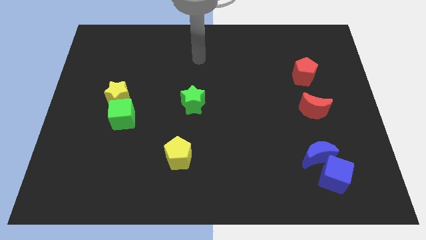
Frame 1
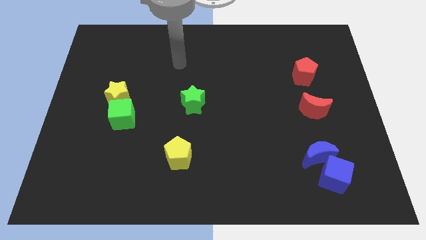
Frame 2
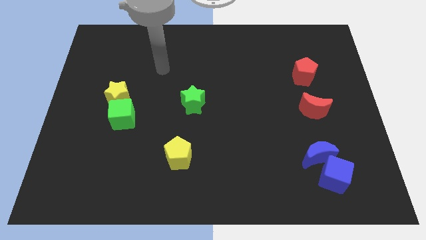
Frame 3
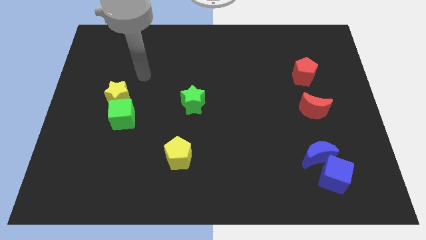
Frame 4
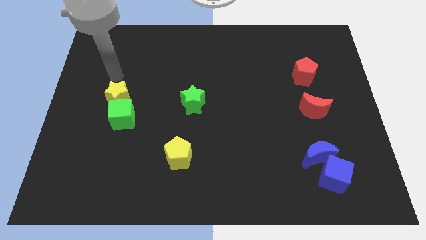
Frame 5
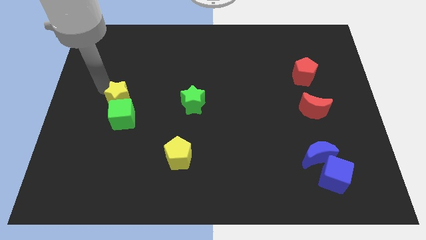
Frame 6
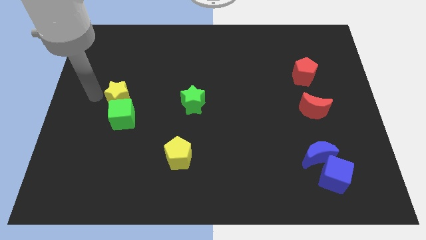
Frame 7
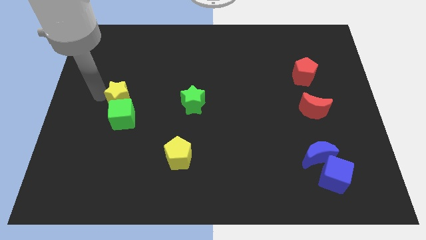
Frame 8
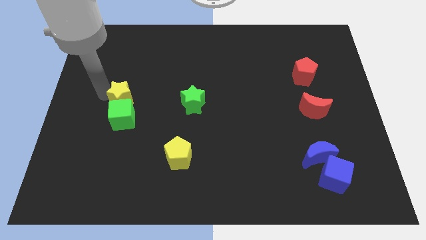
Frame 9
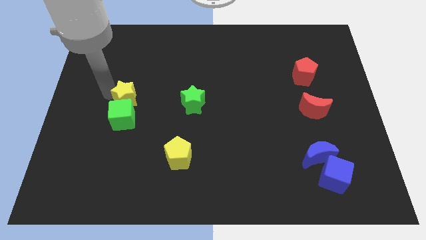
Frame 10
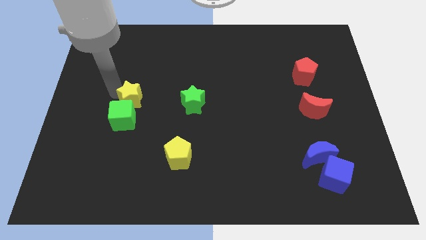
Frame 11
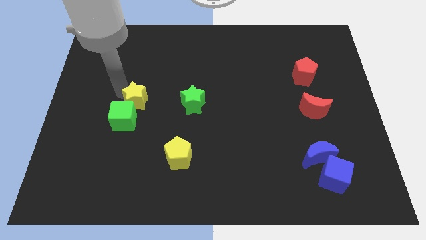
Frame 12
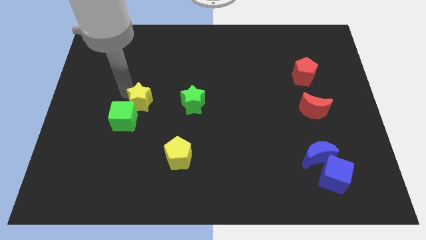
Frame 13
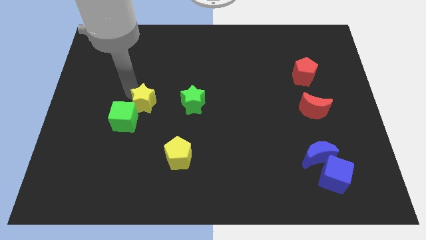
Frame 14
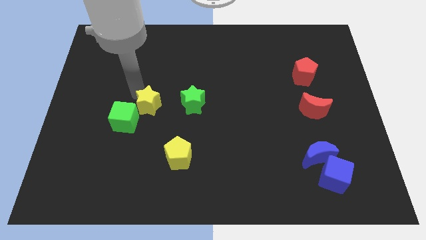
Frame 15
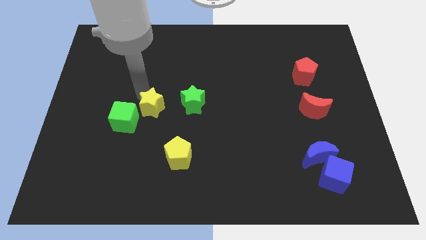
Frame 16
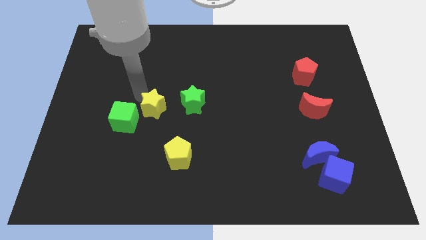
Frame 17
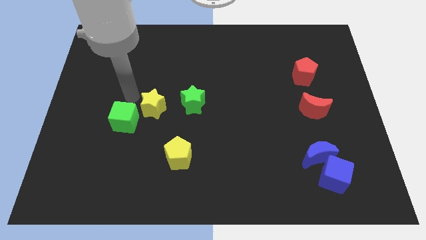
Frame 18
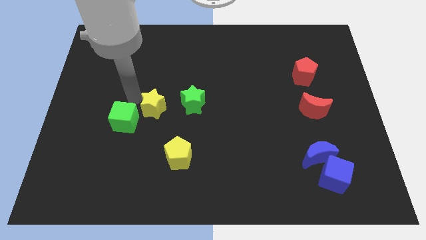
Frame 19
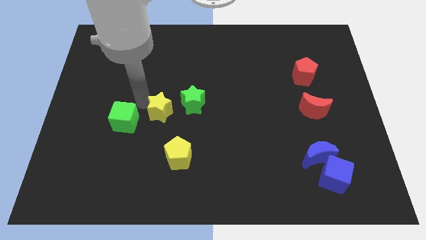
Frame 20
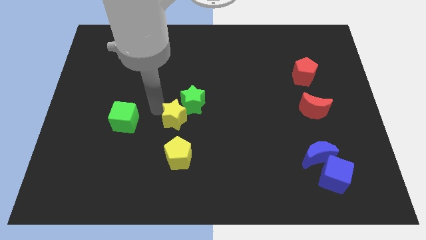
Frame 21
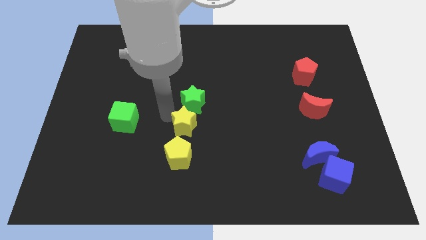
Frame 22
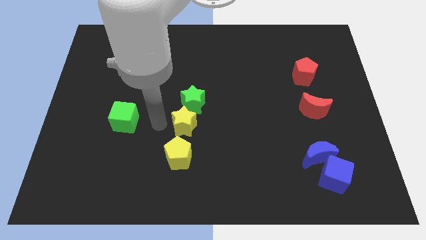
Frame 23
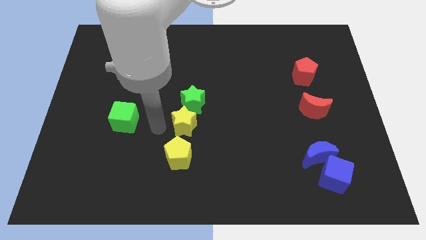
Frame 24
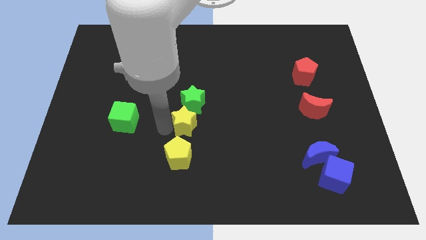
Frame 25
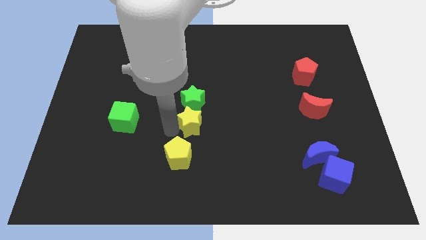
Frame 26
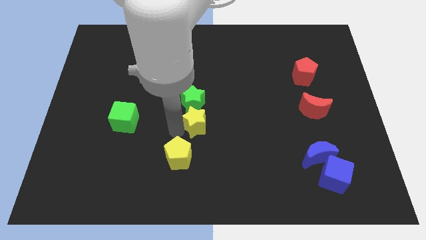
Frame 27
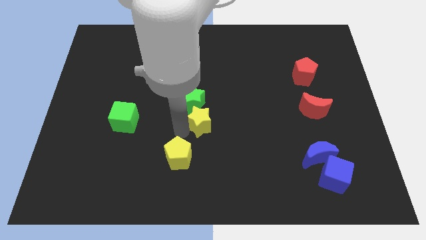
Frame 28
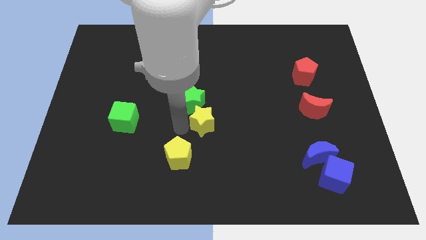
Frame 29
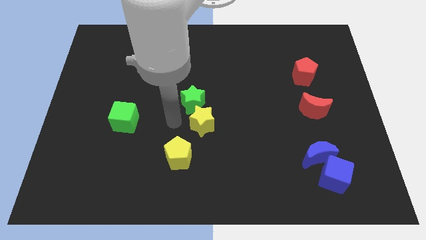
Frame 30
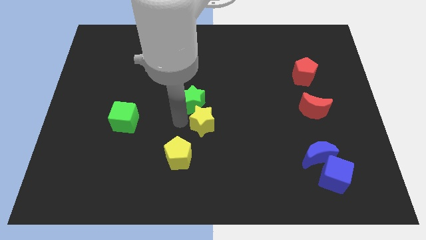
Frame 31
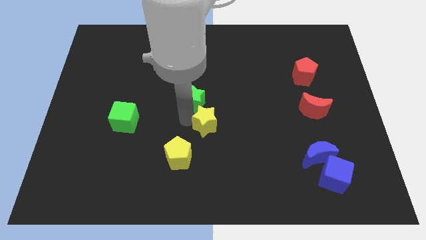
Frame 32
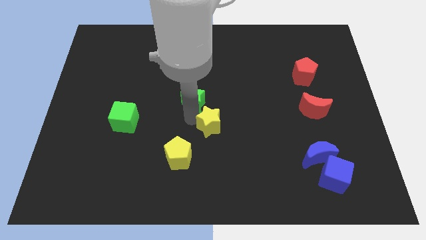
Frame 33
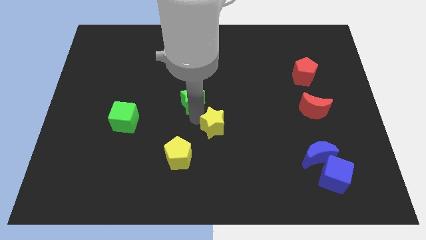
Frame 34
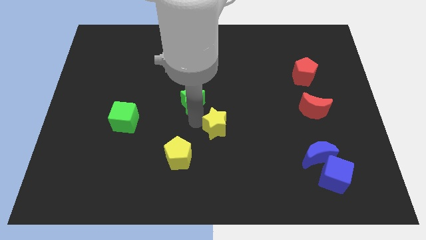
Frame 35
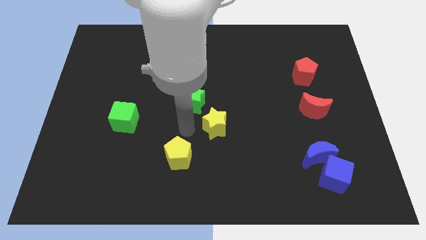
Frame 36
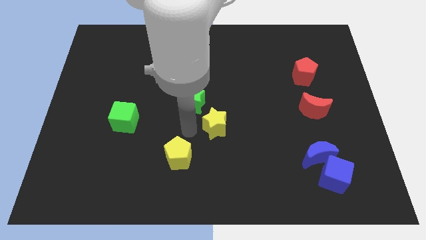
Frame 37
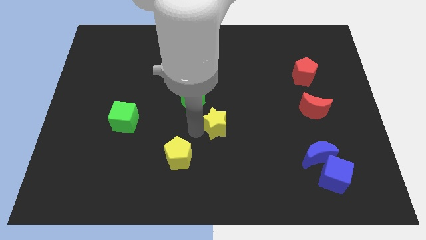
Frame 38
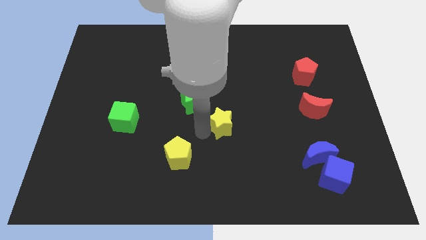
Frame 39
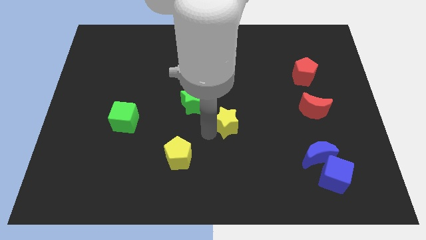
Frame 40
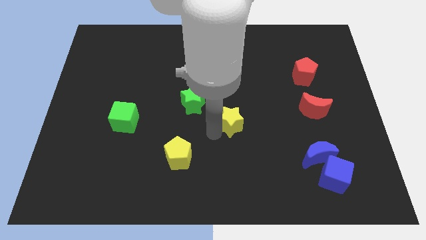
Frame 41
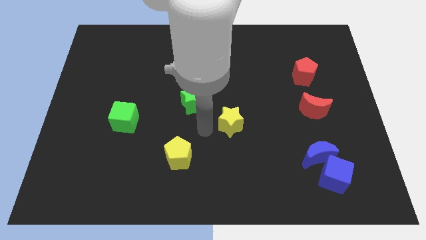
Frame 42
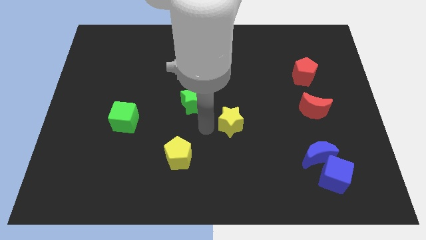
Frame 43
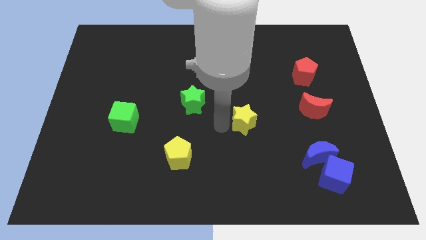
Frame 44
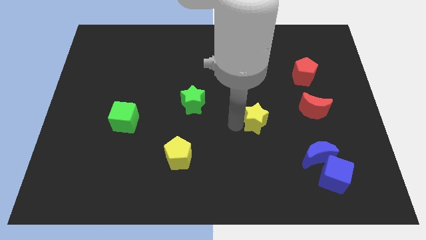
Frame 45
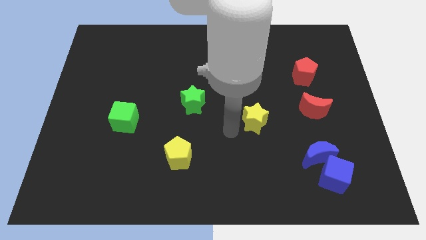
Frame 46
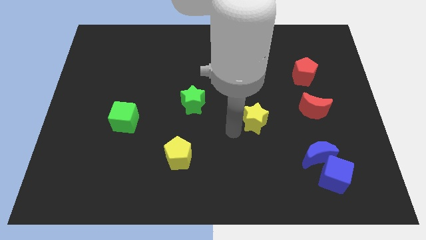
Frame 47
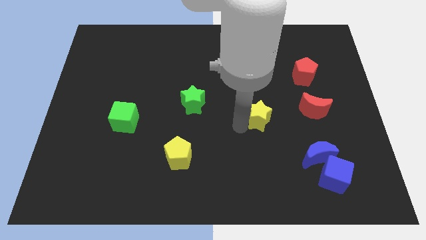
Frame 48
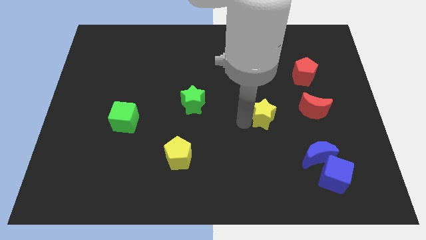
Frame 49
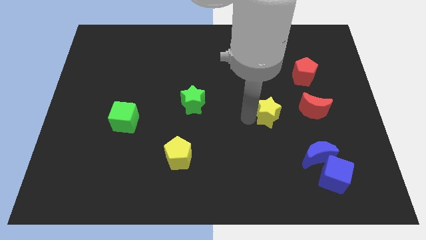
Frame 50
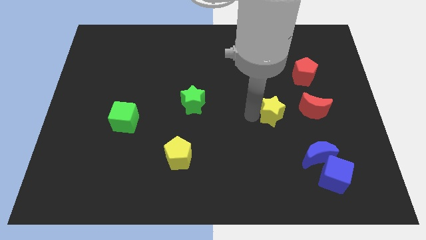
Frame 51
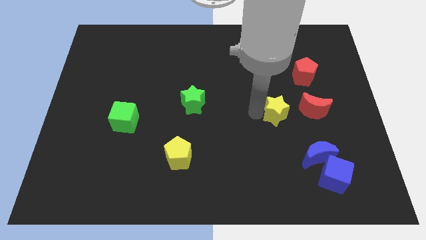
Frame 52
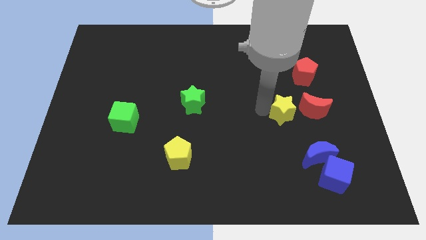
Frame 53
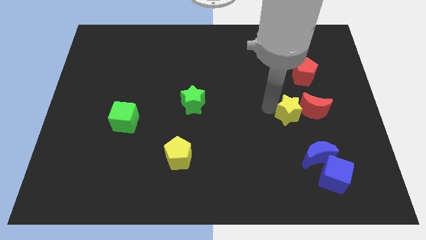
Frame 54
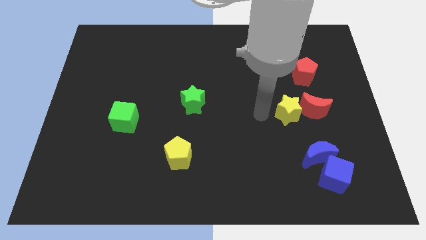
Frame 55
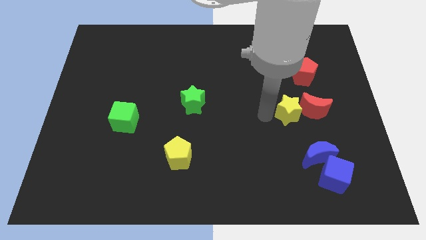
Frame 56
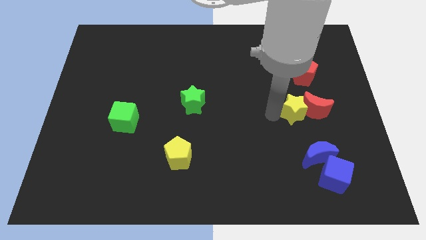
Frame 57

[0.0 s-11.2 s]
move the yellow star towards the red moon

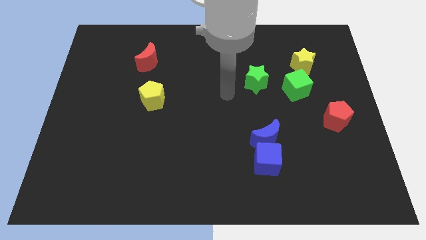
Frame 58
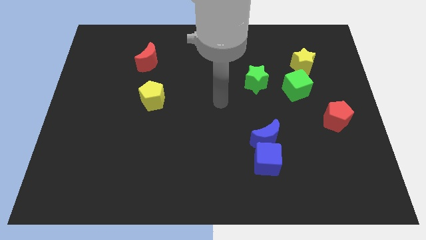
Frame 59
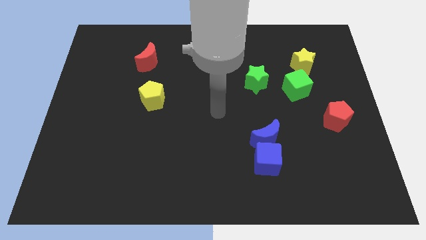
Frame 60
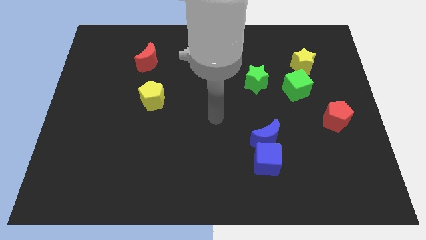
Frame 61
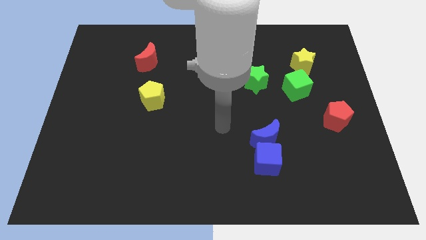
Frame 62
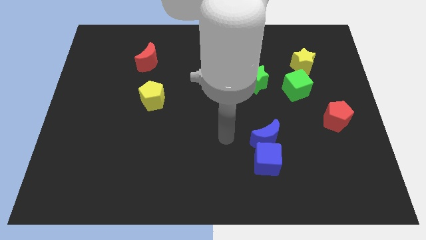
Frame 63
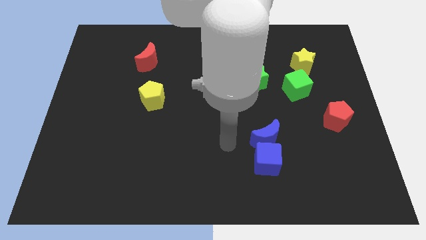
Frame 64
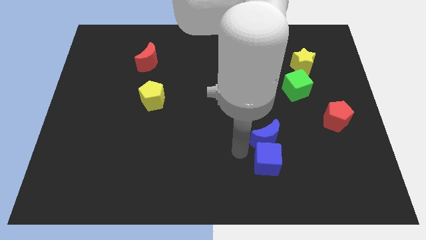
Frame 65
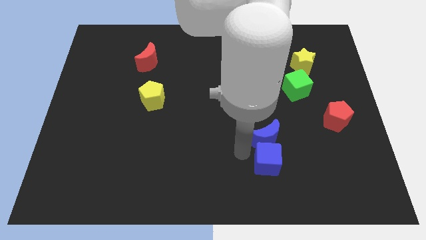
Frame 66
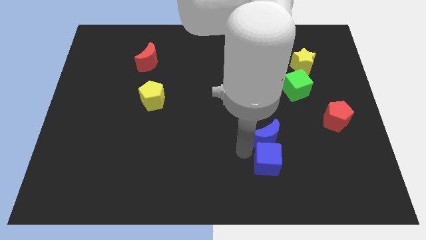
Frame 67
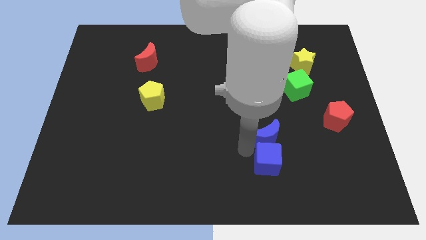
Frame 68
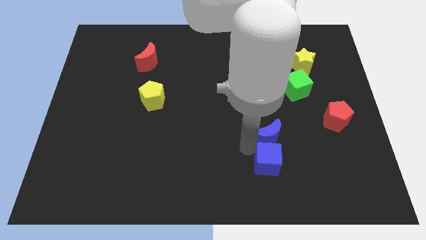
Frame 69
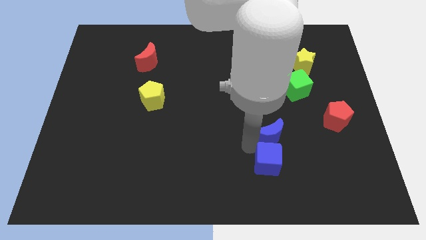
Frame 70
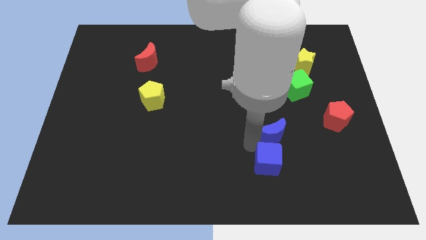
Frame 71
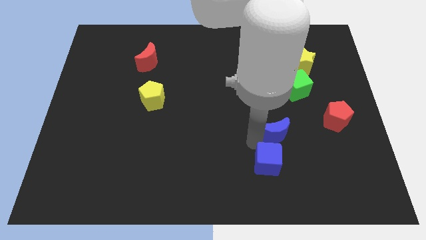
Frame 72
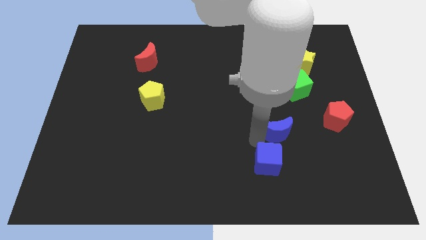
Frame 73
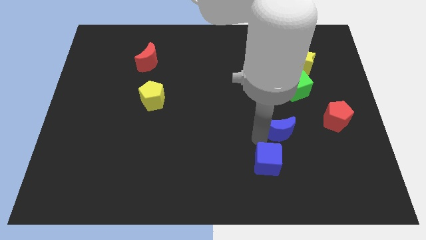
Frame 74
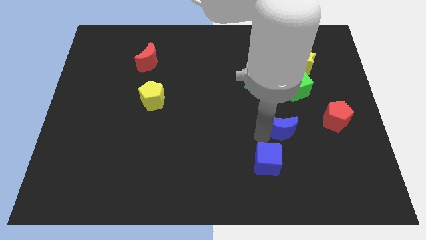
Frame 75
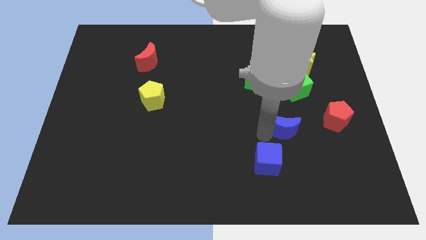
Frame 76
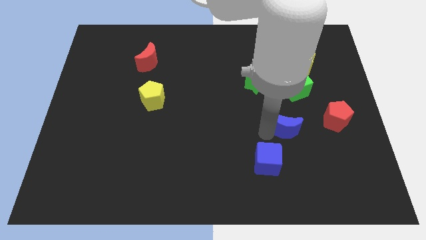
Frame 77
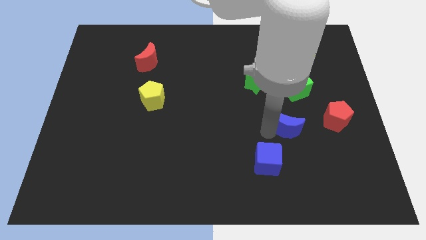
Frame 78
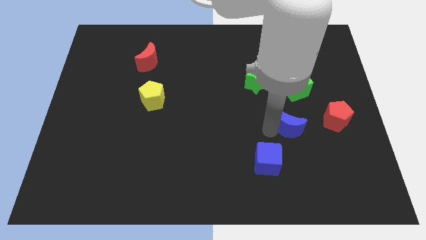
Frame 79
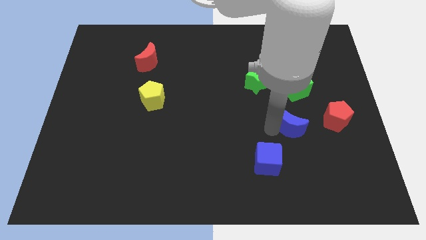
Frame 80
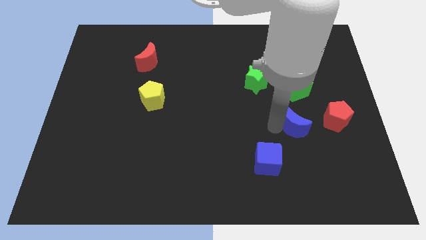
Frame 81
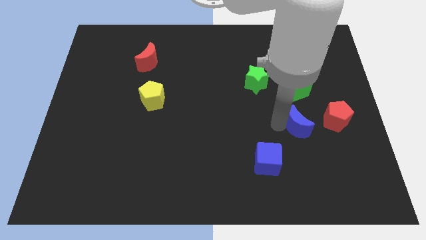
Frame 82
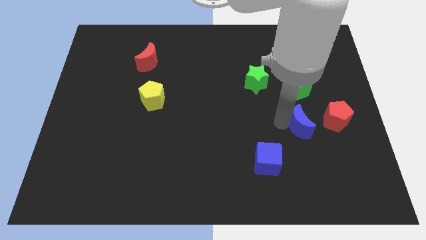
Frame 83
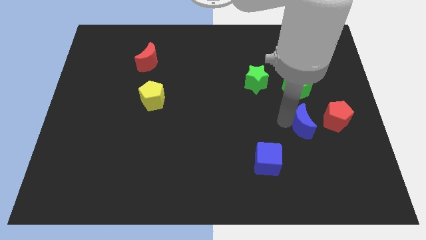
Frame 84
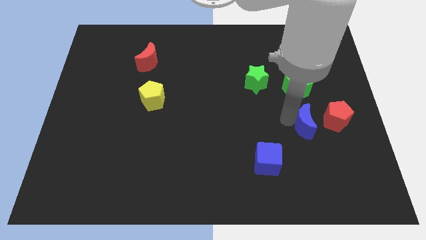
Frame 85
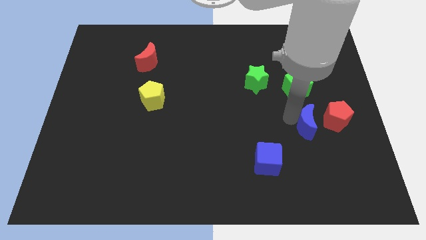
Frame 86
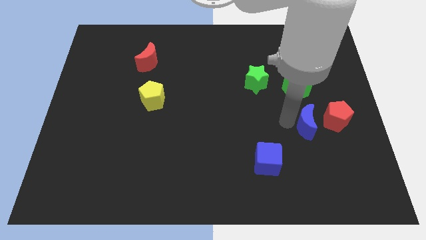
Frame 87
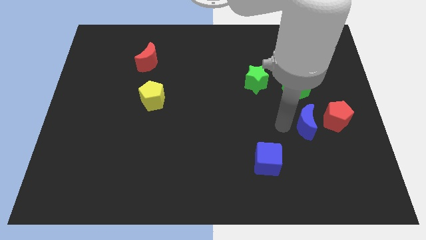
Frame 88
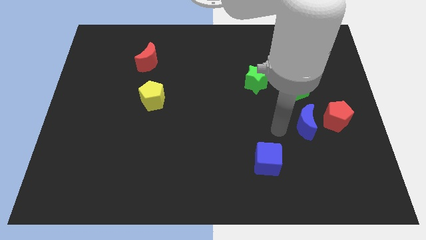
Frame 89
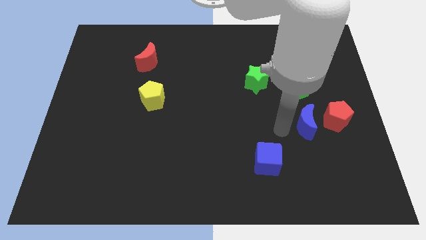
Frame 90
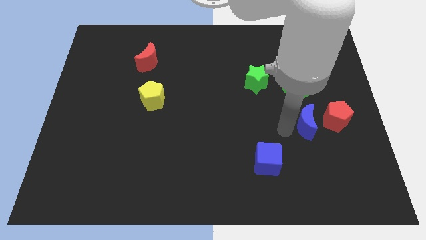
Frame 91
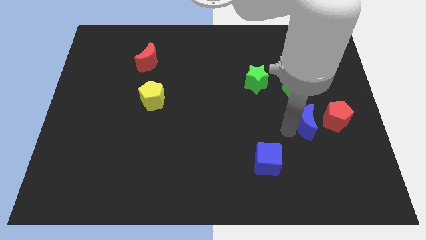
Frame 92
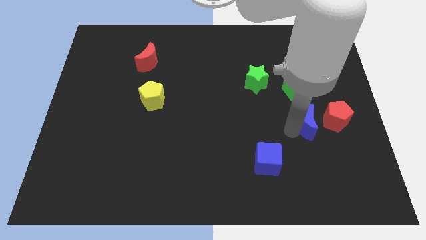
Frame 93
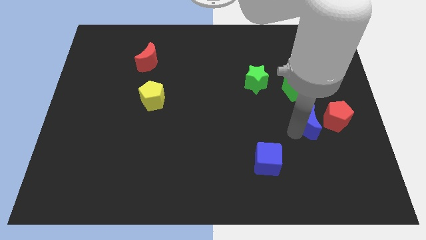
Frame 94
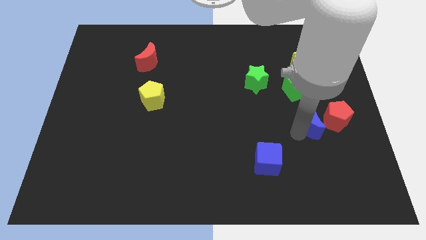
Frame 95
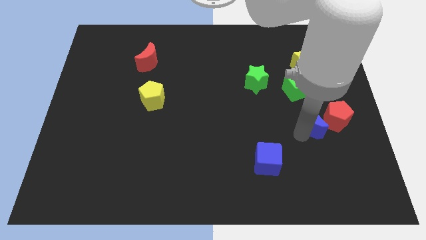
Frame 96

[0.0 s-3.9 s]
slide the blue moon close to the red pentagon
